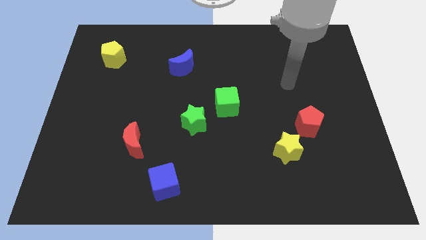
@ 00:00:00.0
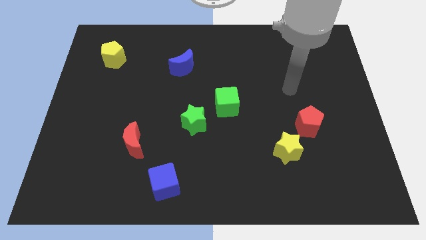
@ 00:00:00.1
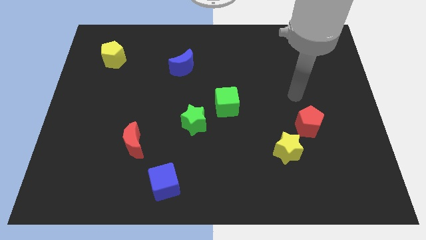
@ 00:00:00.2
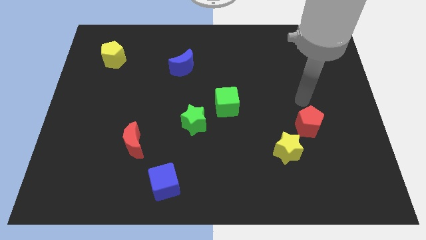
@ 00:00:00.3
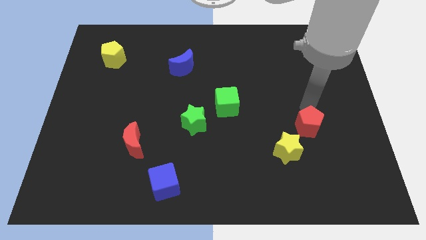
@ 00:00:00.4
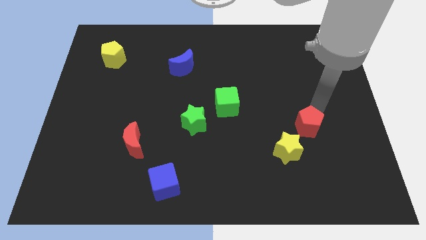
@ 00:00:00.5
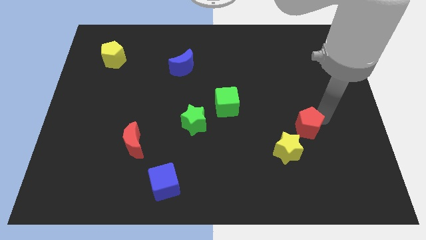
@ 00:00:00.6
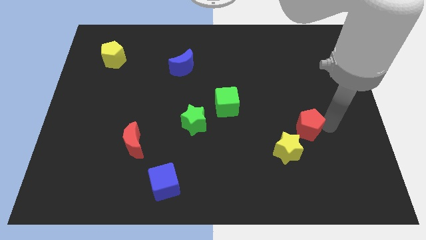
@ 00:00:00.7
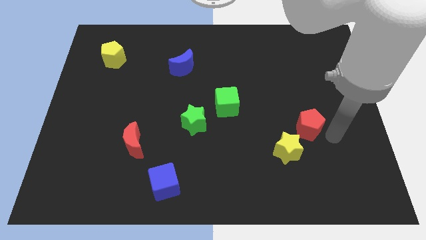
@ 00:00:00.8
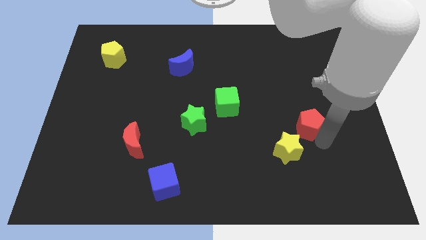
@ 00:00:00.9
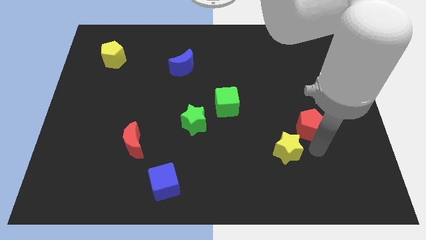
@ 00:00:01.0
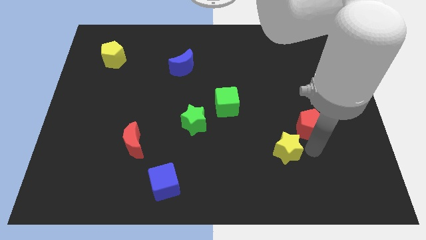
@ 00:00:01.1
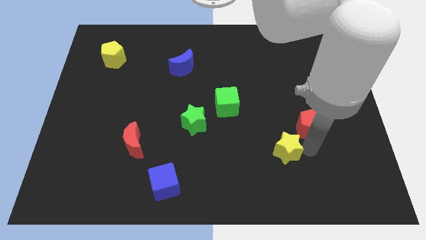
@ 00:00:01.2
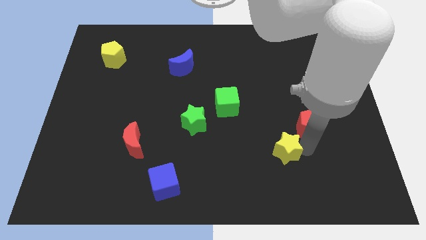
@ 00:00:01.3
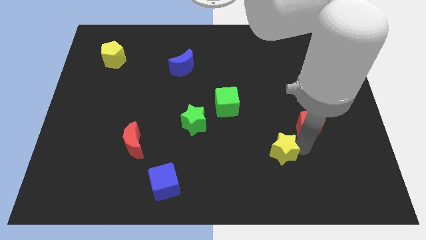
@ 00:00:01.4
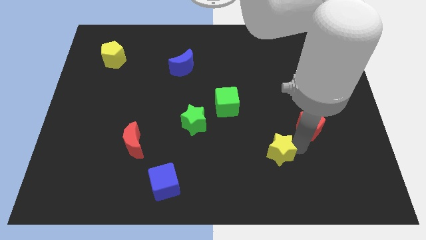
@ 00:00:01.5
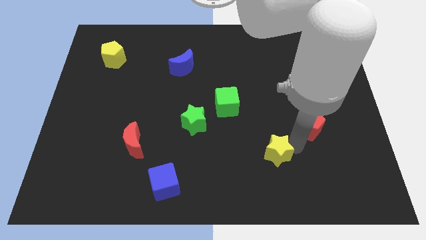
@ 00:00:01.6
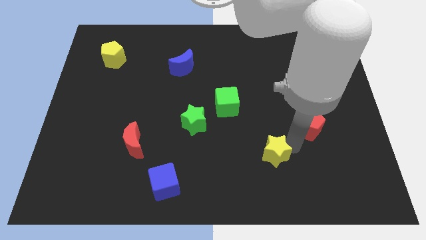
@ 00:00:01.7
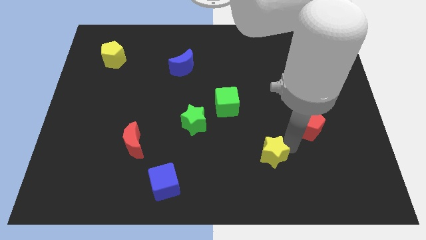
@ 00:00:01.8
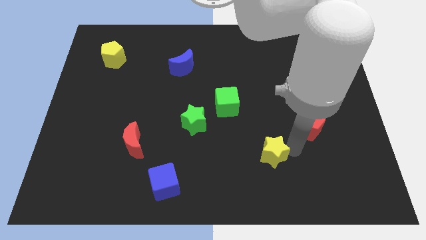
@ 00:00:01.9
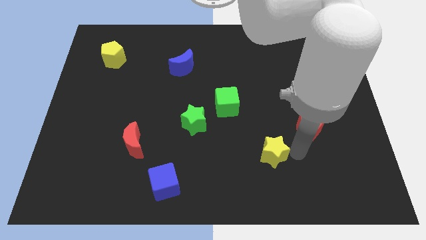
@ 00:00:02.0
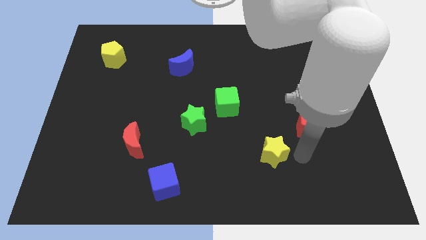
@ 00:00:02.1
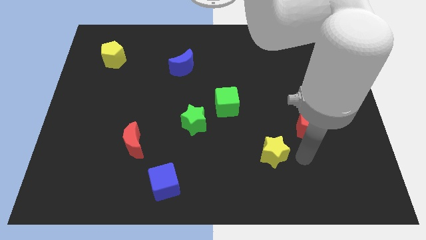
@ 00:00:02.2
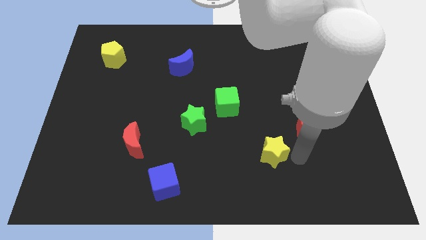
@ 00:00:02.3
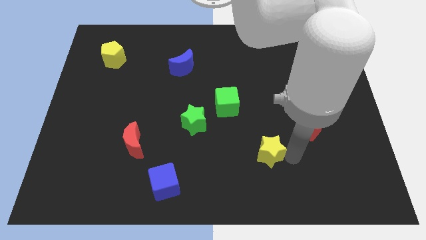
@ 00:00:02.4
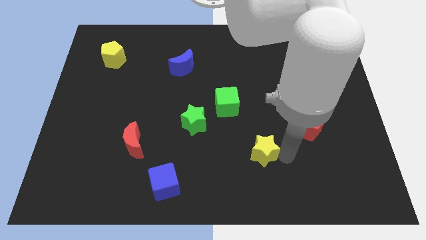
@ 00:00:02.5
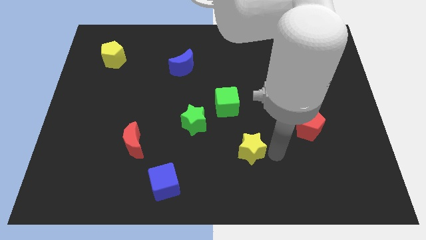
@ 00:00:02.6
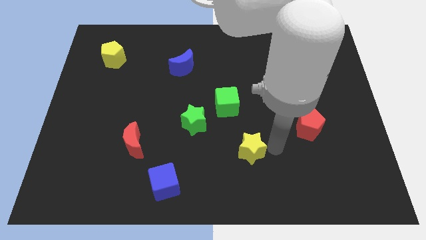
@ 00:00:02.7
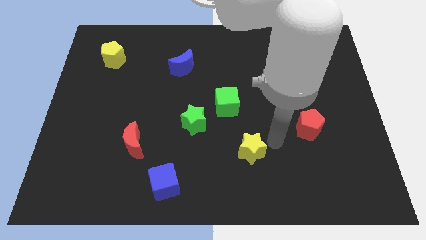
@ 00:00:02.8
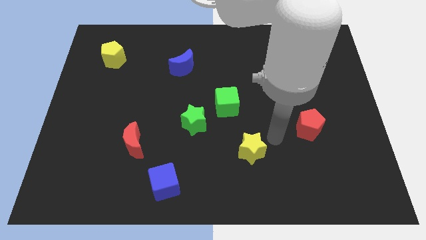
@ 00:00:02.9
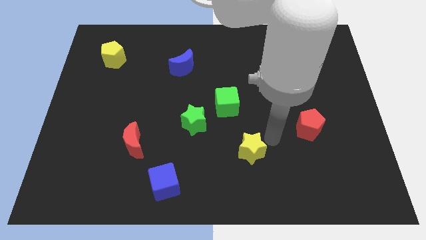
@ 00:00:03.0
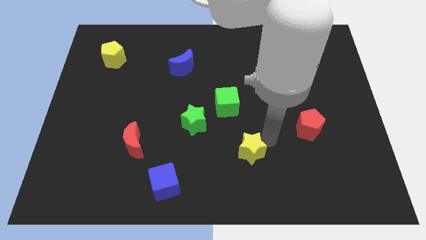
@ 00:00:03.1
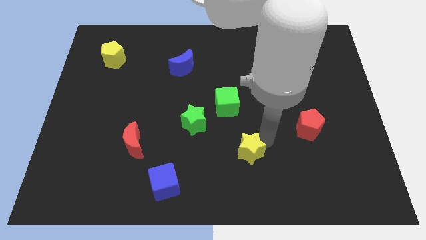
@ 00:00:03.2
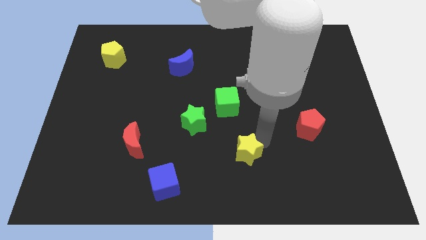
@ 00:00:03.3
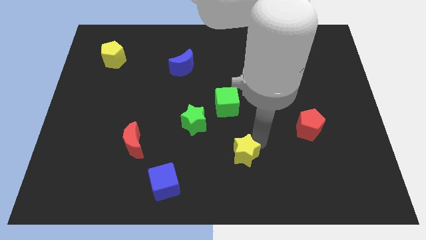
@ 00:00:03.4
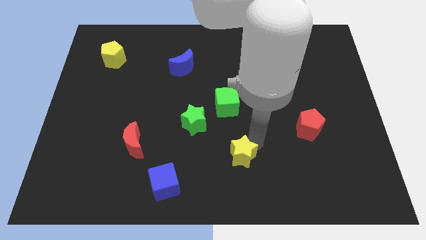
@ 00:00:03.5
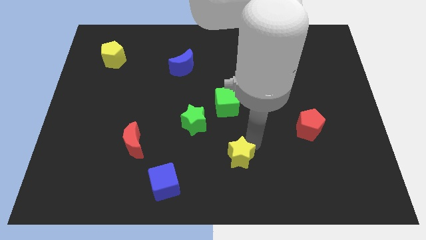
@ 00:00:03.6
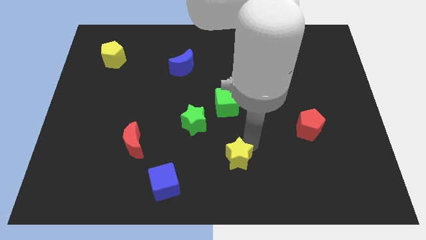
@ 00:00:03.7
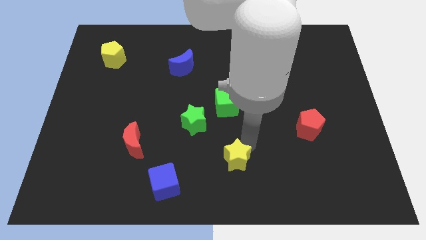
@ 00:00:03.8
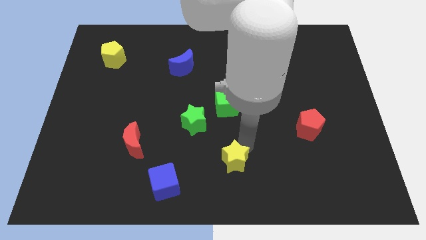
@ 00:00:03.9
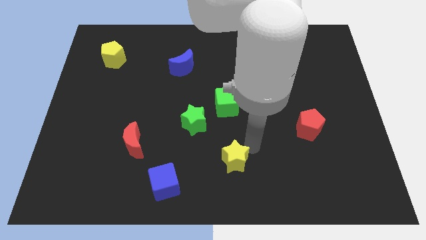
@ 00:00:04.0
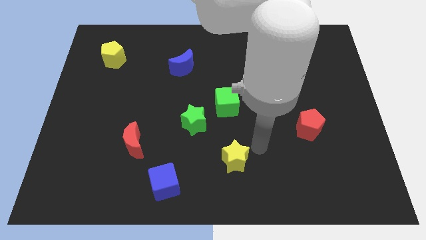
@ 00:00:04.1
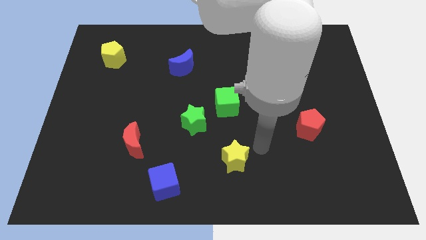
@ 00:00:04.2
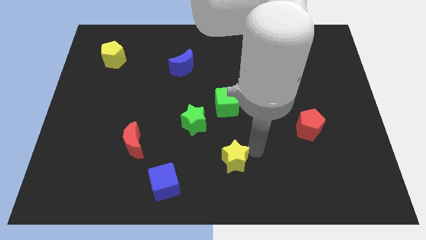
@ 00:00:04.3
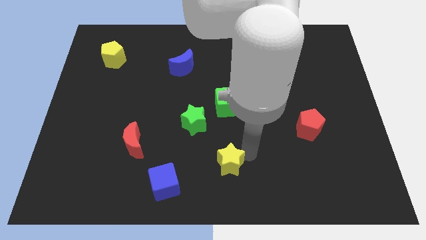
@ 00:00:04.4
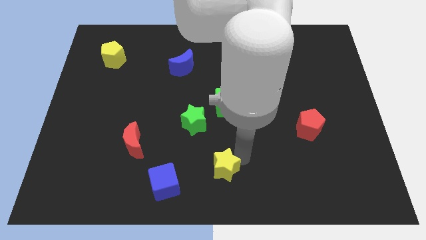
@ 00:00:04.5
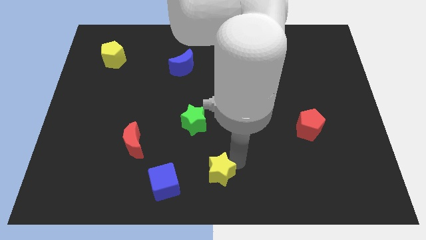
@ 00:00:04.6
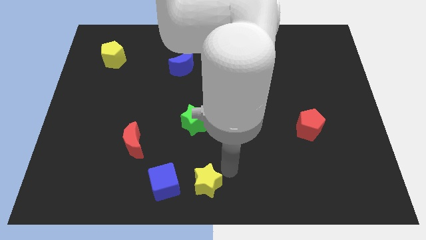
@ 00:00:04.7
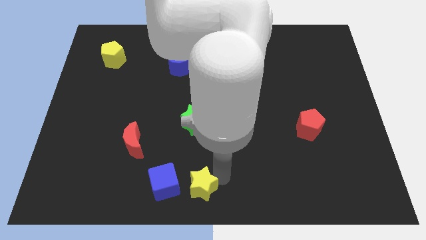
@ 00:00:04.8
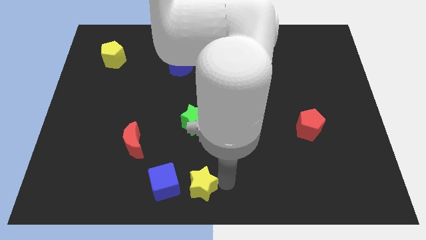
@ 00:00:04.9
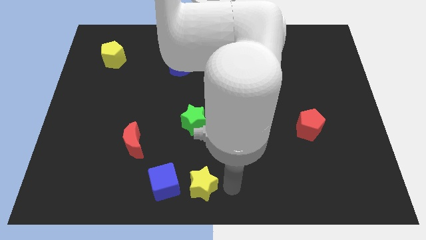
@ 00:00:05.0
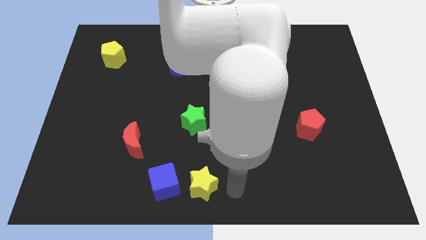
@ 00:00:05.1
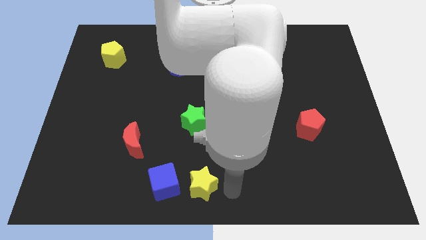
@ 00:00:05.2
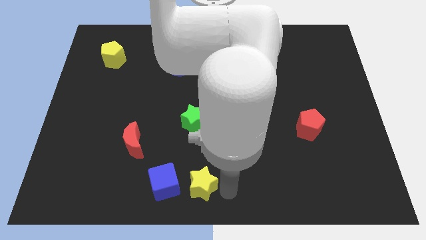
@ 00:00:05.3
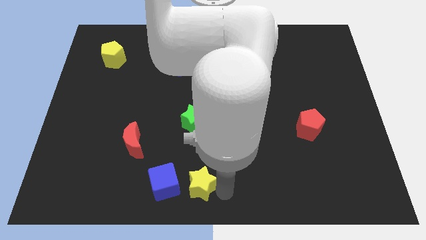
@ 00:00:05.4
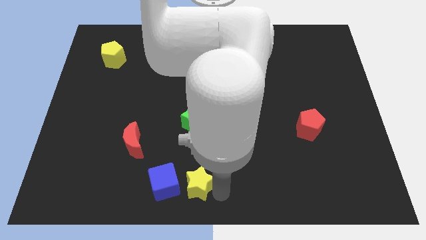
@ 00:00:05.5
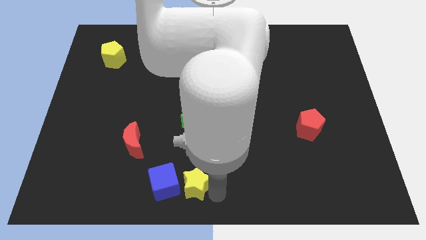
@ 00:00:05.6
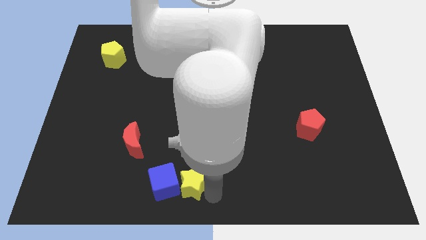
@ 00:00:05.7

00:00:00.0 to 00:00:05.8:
push the yellow star towards the blue cube

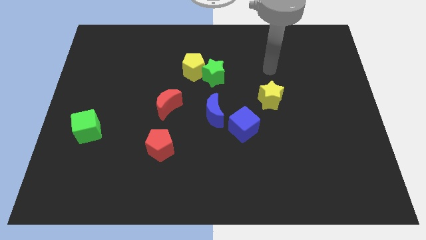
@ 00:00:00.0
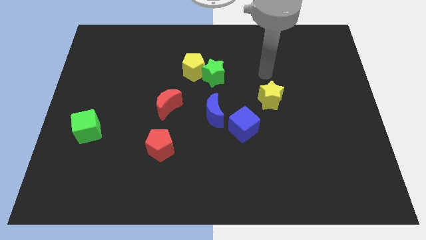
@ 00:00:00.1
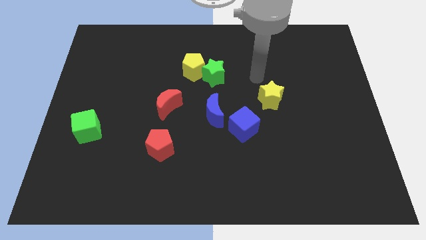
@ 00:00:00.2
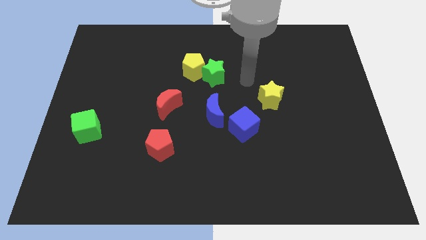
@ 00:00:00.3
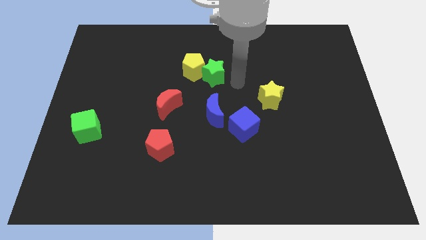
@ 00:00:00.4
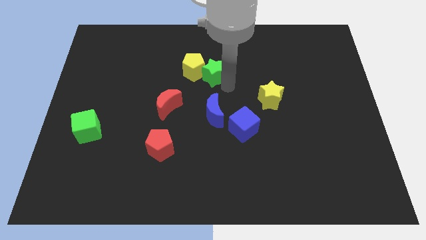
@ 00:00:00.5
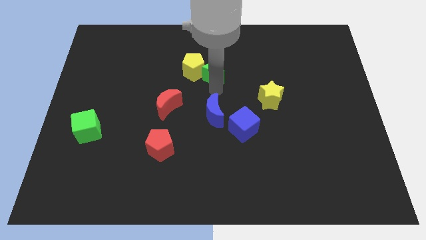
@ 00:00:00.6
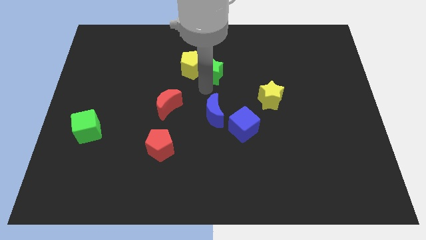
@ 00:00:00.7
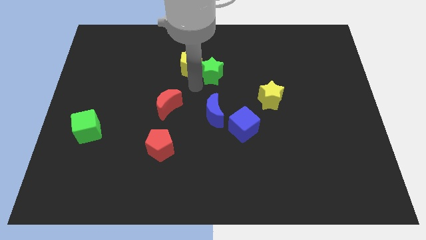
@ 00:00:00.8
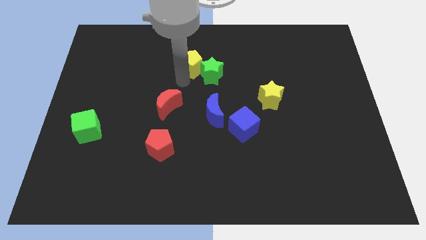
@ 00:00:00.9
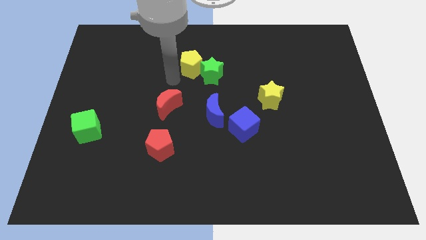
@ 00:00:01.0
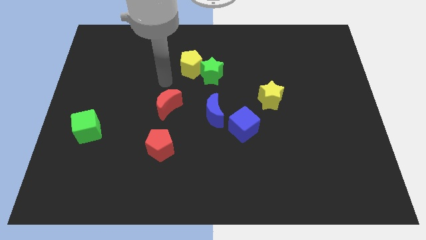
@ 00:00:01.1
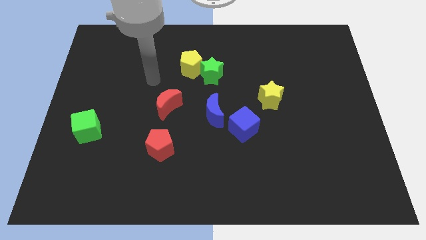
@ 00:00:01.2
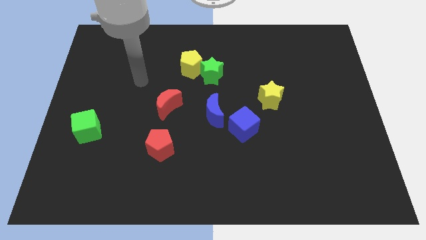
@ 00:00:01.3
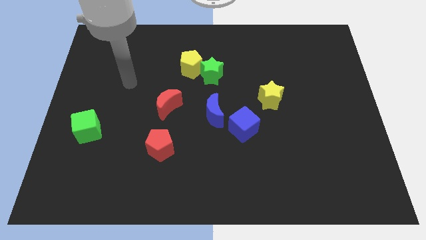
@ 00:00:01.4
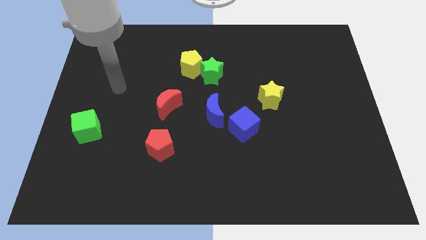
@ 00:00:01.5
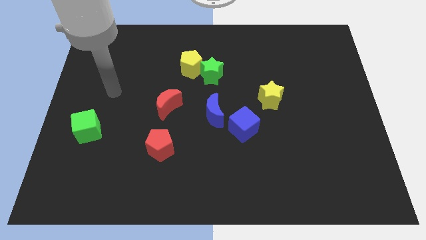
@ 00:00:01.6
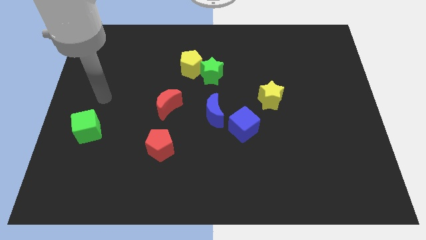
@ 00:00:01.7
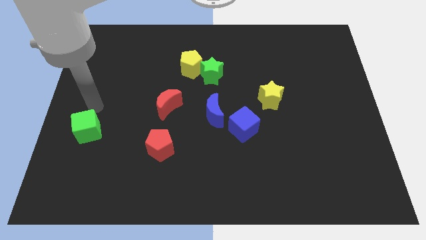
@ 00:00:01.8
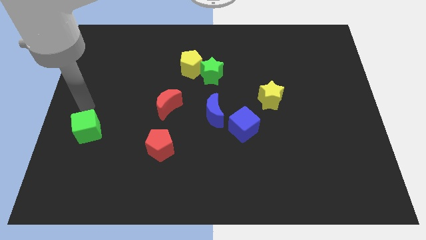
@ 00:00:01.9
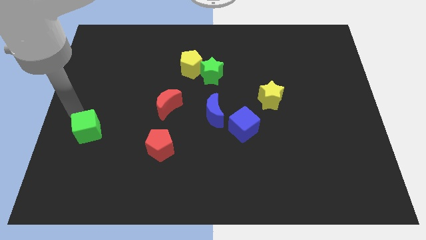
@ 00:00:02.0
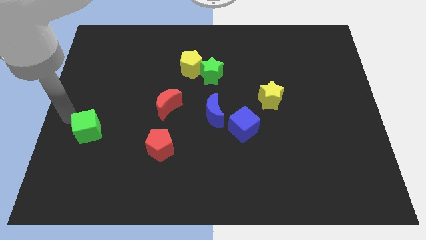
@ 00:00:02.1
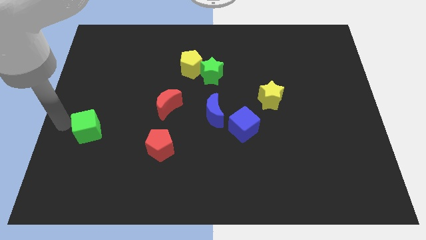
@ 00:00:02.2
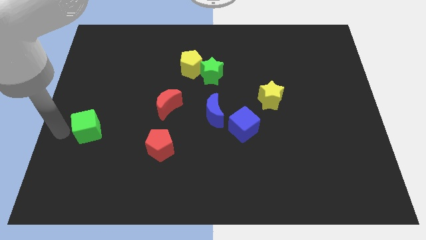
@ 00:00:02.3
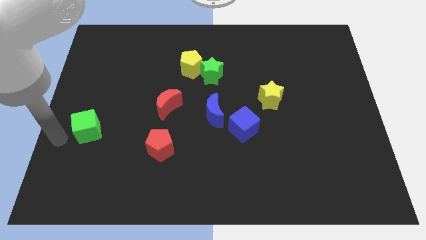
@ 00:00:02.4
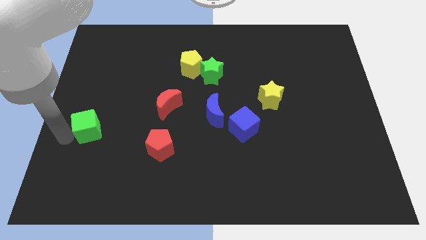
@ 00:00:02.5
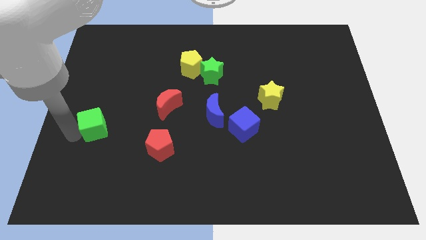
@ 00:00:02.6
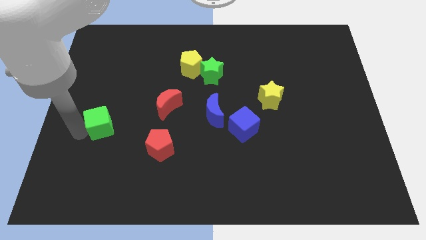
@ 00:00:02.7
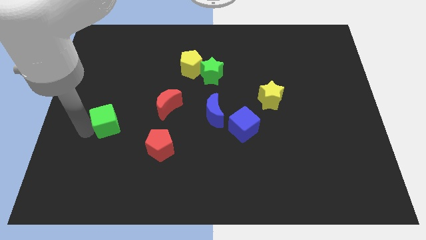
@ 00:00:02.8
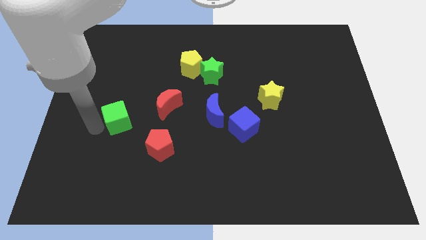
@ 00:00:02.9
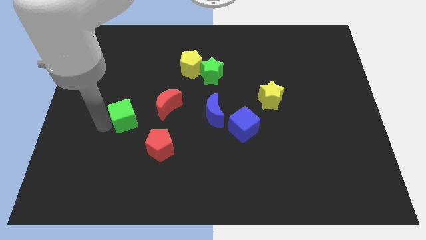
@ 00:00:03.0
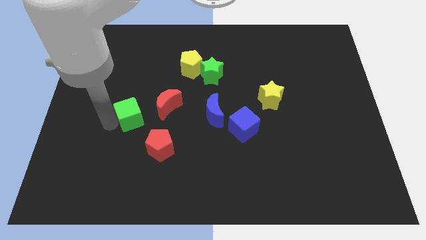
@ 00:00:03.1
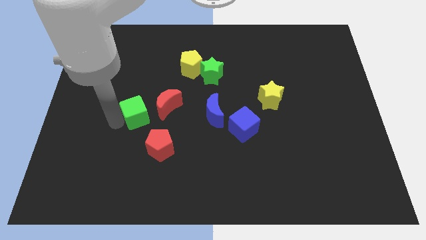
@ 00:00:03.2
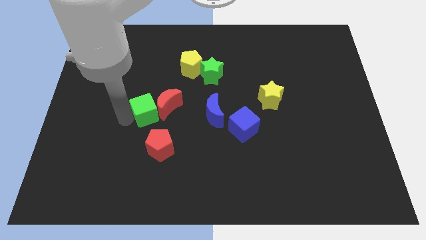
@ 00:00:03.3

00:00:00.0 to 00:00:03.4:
put the green cube close to the red moon
